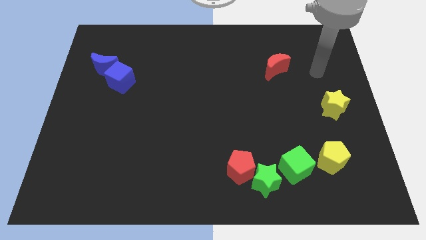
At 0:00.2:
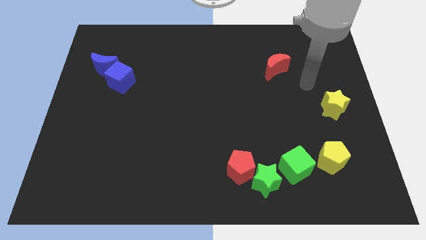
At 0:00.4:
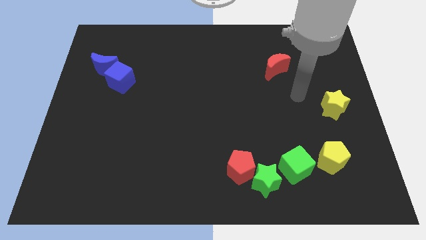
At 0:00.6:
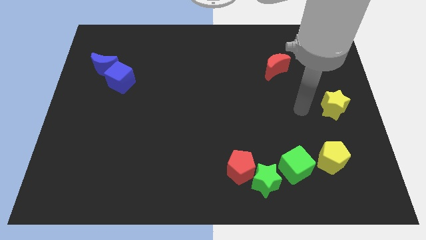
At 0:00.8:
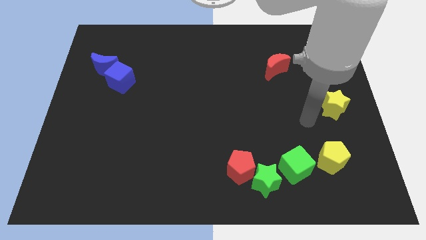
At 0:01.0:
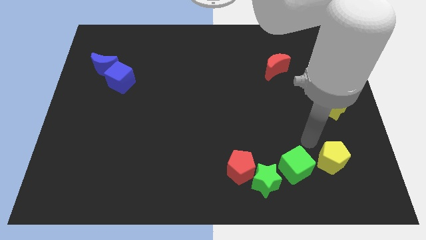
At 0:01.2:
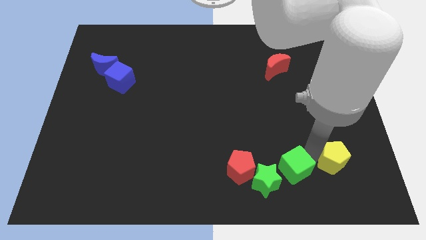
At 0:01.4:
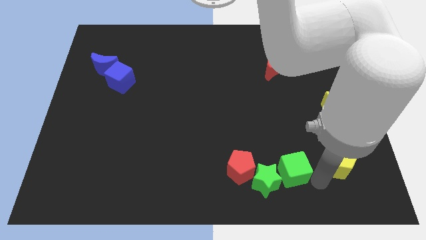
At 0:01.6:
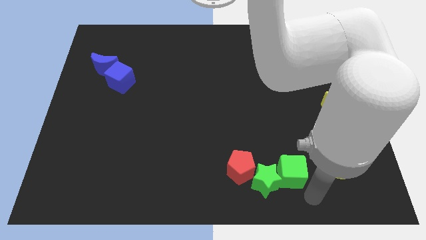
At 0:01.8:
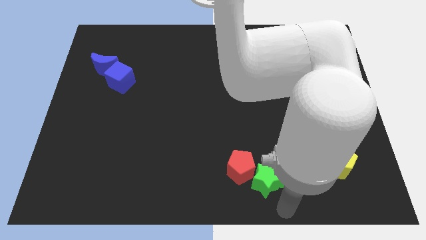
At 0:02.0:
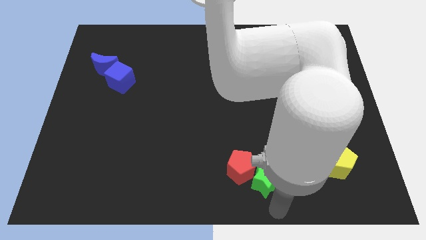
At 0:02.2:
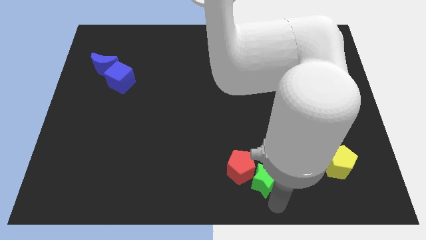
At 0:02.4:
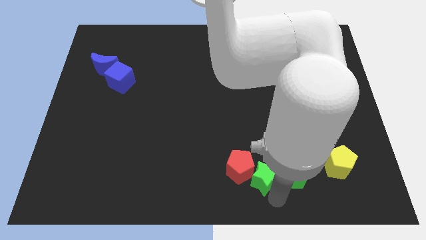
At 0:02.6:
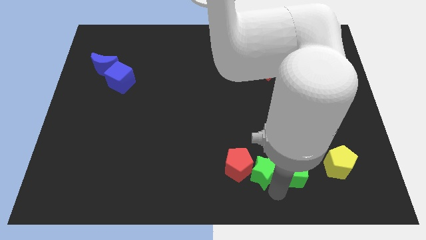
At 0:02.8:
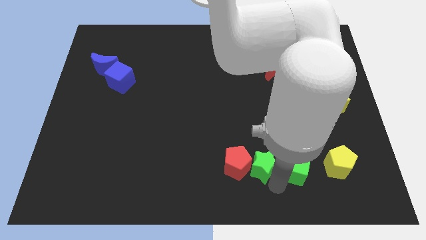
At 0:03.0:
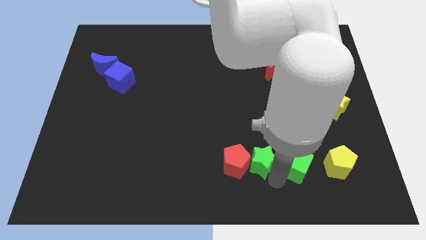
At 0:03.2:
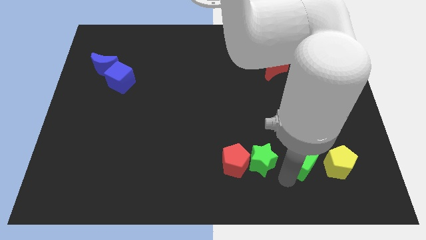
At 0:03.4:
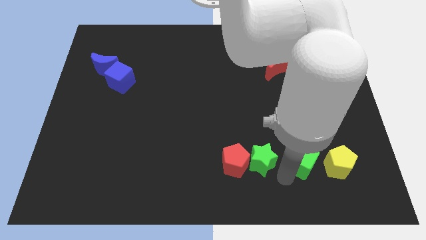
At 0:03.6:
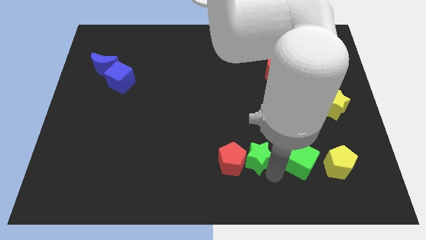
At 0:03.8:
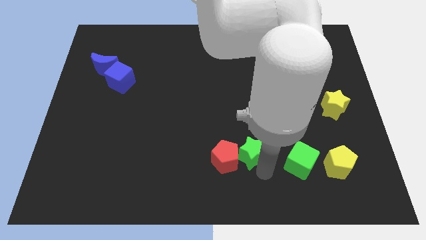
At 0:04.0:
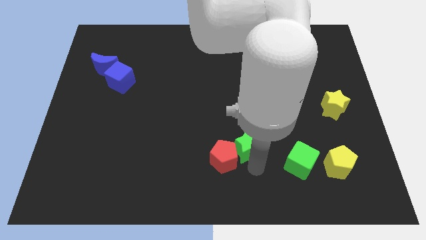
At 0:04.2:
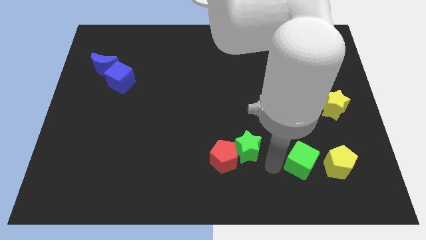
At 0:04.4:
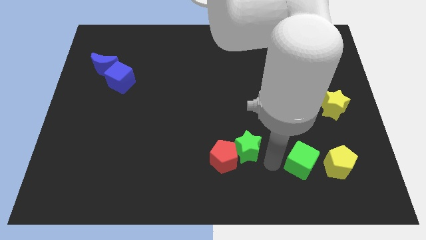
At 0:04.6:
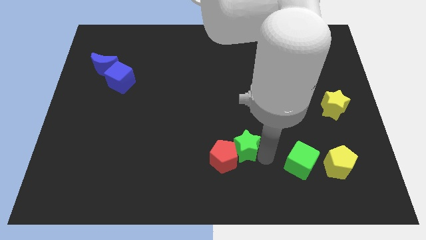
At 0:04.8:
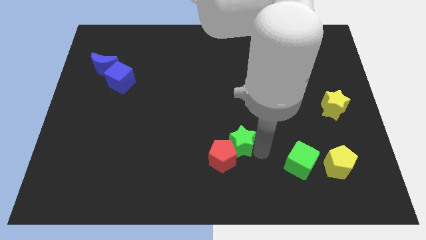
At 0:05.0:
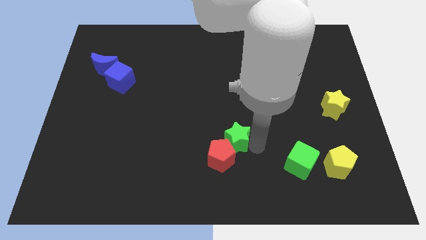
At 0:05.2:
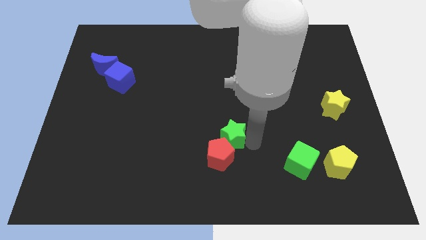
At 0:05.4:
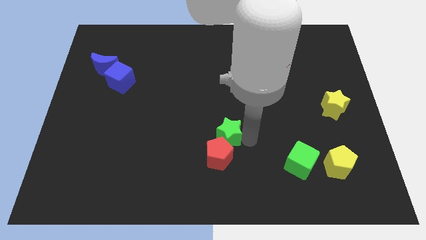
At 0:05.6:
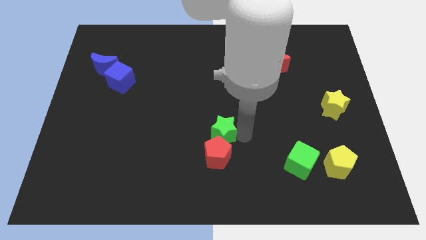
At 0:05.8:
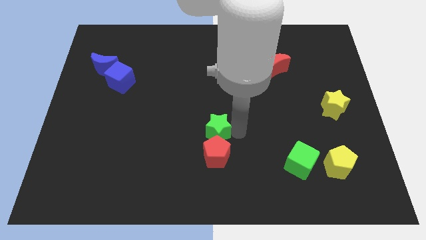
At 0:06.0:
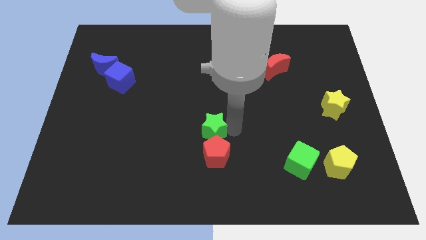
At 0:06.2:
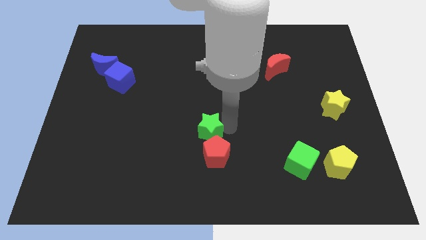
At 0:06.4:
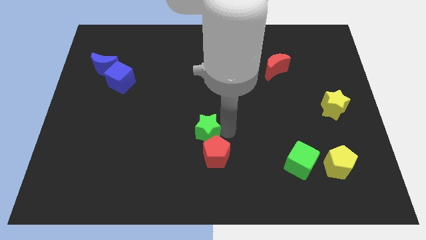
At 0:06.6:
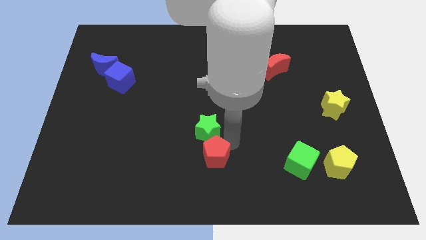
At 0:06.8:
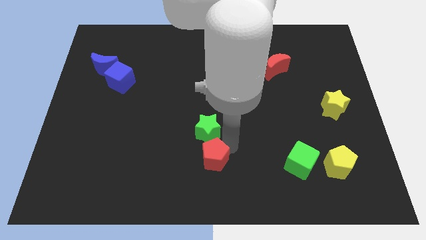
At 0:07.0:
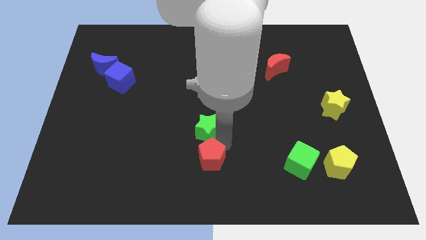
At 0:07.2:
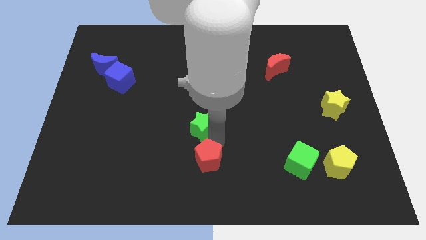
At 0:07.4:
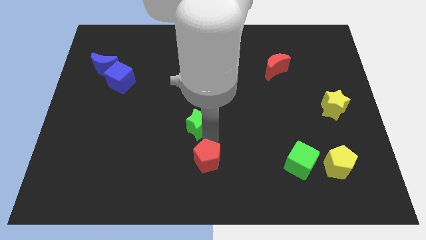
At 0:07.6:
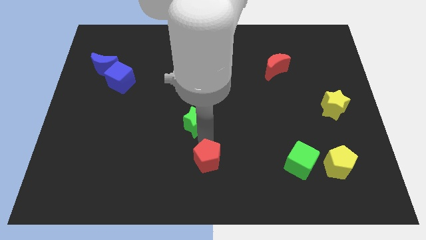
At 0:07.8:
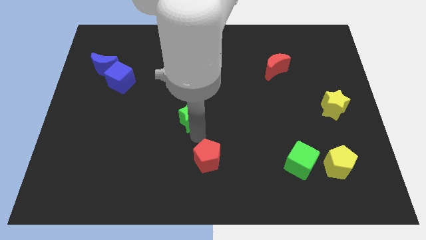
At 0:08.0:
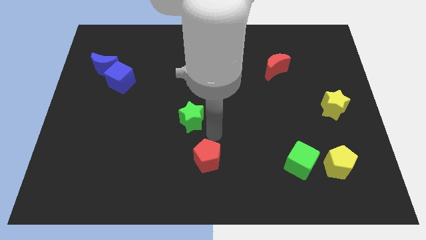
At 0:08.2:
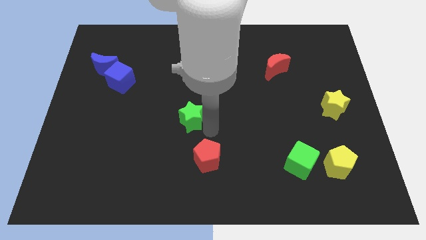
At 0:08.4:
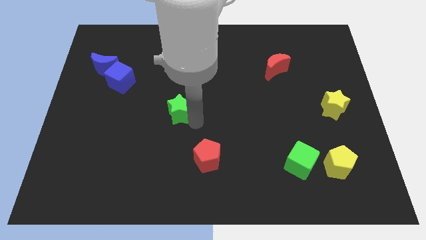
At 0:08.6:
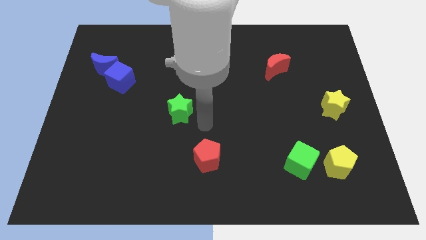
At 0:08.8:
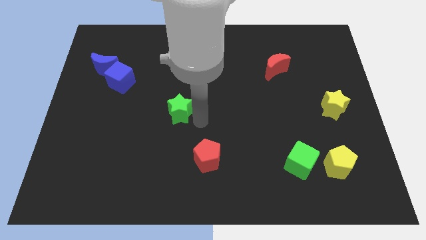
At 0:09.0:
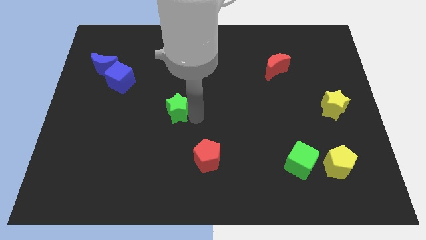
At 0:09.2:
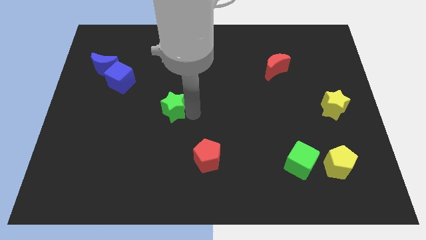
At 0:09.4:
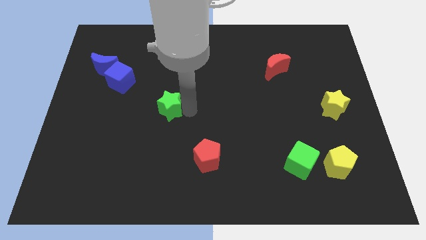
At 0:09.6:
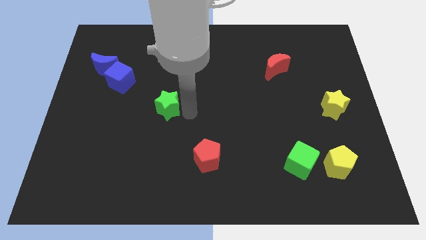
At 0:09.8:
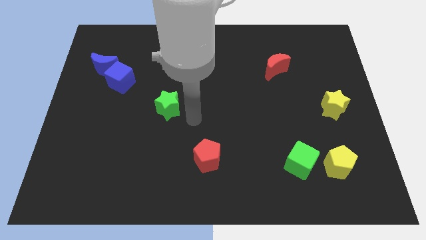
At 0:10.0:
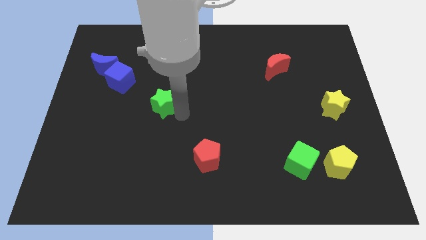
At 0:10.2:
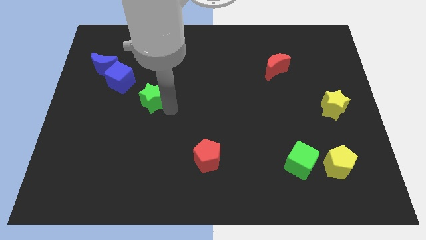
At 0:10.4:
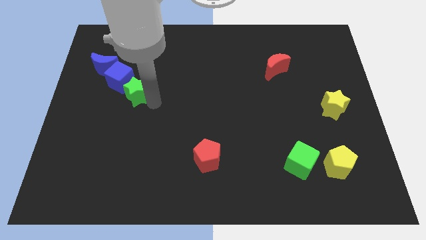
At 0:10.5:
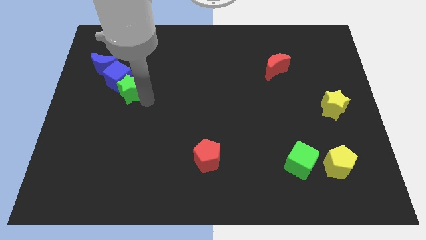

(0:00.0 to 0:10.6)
put the green star to the blue cube

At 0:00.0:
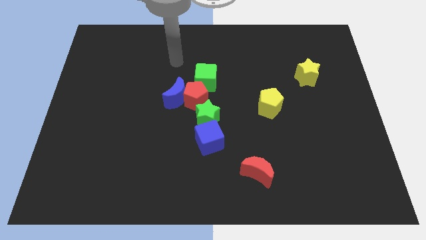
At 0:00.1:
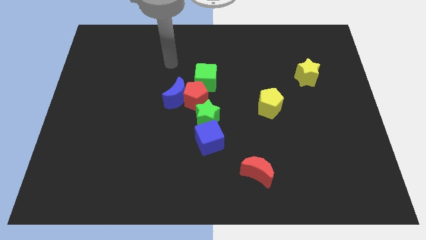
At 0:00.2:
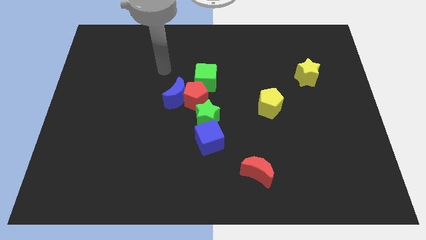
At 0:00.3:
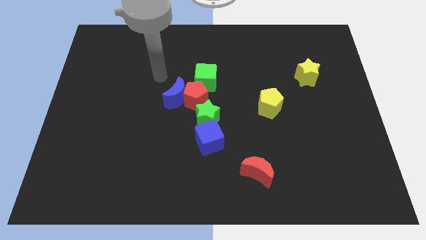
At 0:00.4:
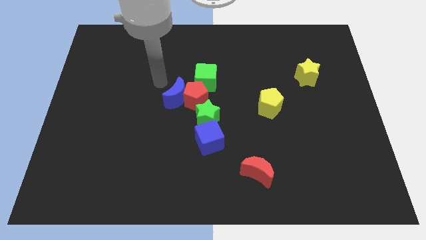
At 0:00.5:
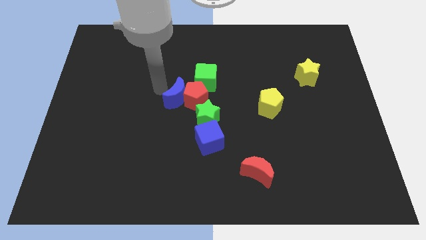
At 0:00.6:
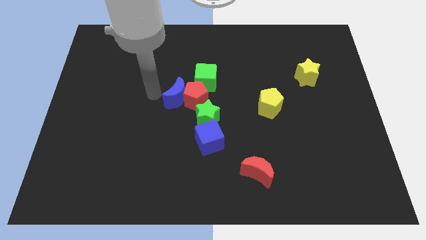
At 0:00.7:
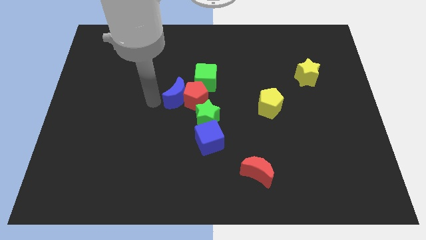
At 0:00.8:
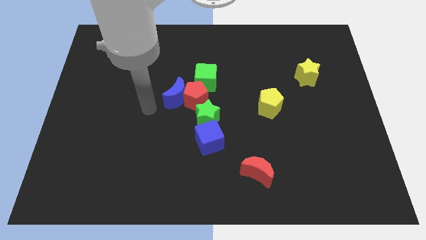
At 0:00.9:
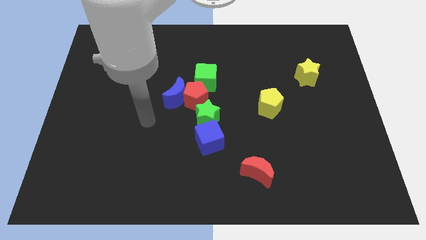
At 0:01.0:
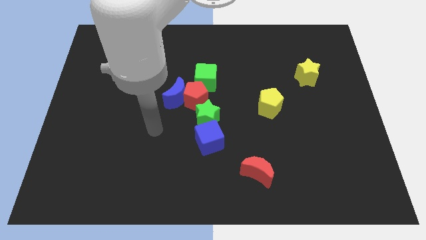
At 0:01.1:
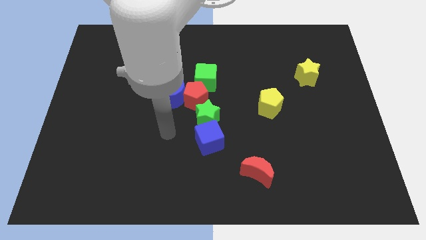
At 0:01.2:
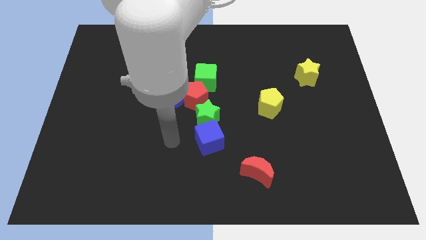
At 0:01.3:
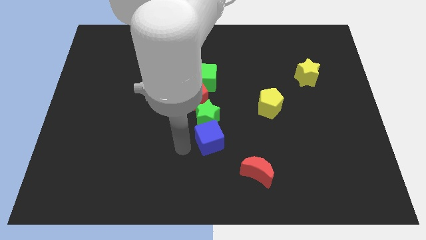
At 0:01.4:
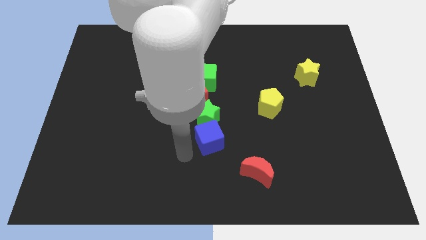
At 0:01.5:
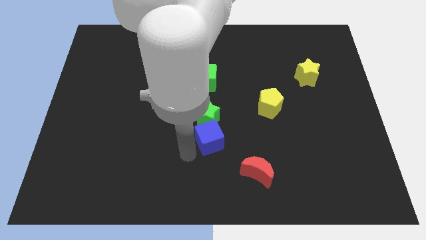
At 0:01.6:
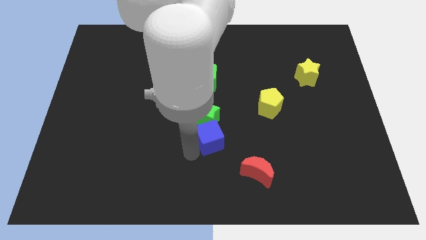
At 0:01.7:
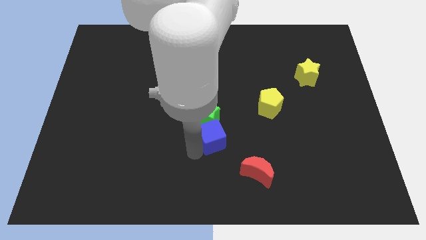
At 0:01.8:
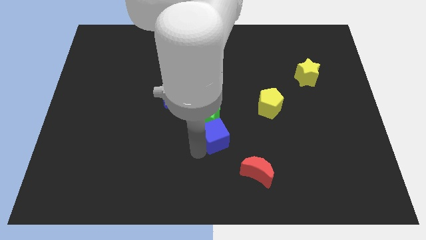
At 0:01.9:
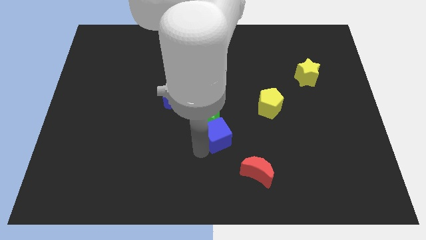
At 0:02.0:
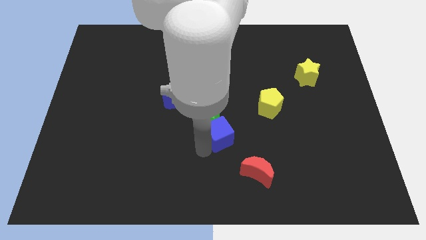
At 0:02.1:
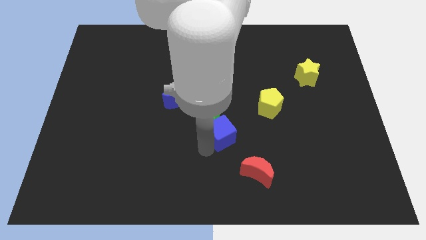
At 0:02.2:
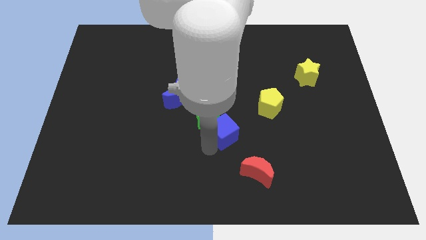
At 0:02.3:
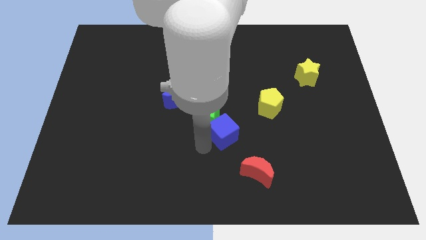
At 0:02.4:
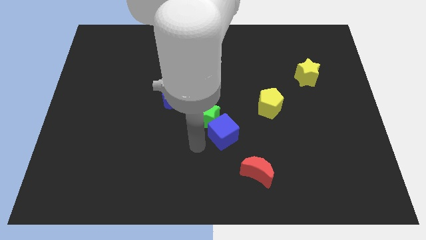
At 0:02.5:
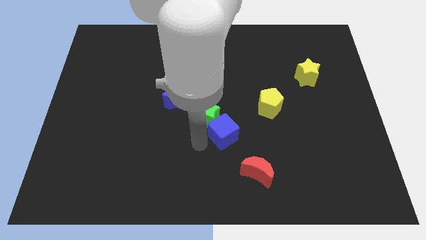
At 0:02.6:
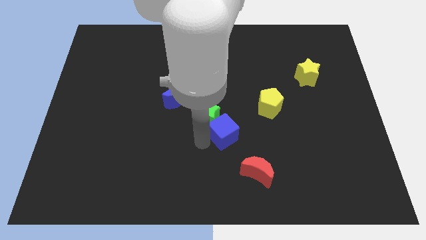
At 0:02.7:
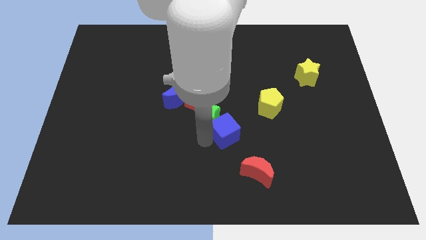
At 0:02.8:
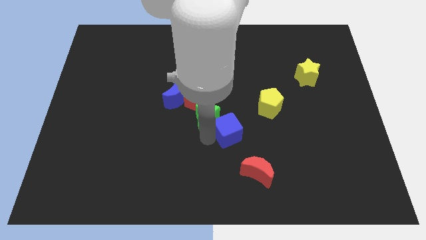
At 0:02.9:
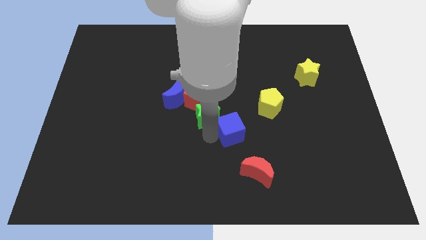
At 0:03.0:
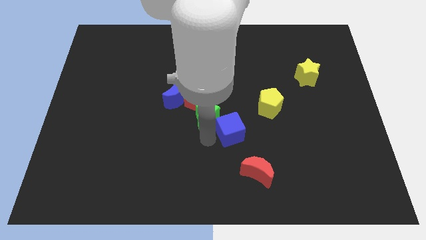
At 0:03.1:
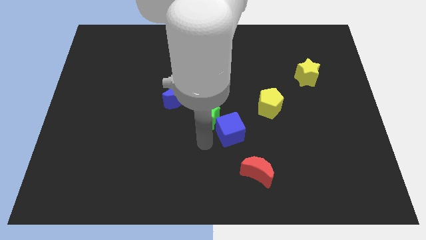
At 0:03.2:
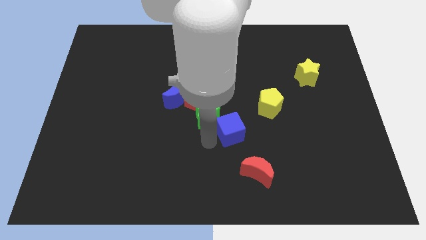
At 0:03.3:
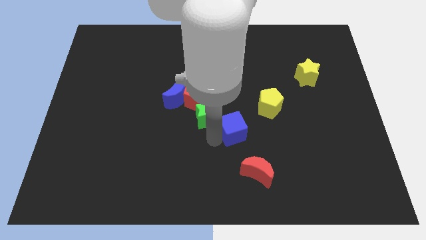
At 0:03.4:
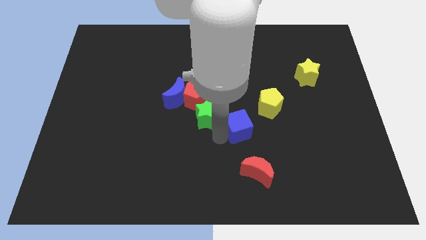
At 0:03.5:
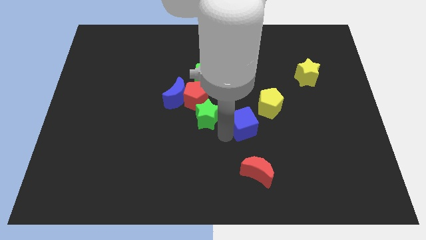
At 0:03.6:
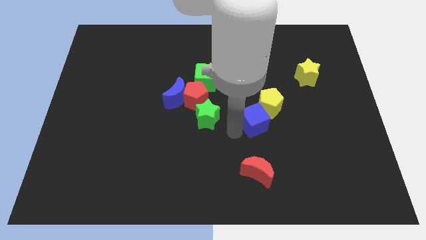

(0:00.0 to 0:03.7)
move the blue cube next to the yellow pentagon
